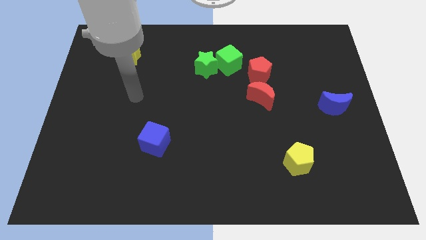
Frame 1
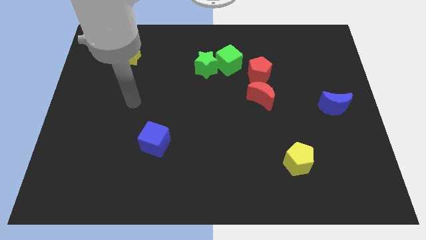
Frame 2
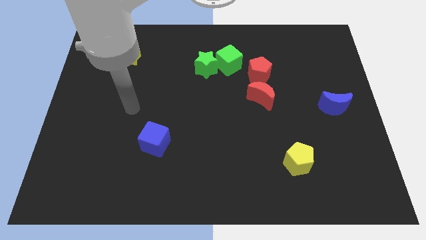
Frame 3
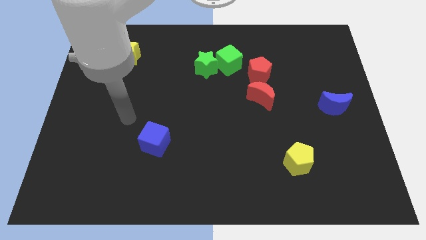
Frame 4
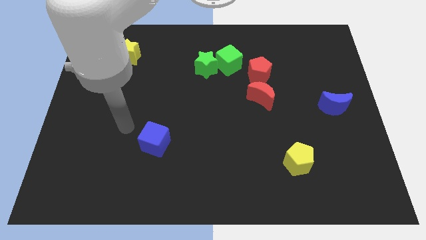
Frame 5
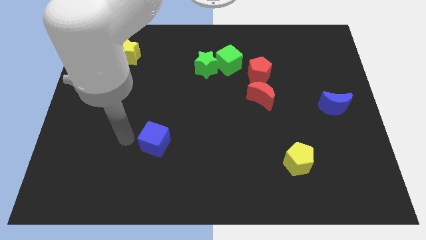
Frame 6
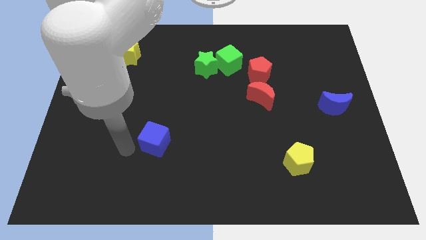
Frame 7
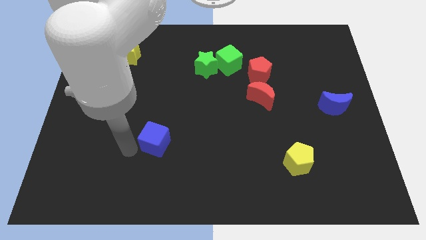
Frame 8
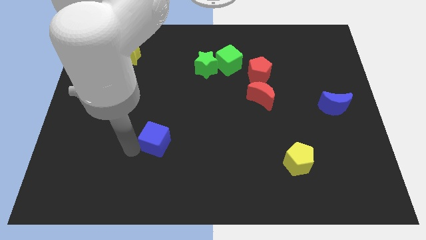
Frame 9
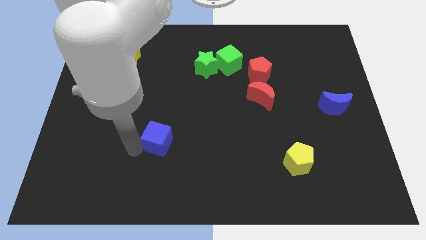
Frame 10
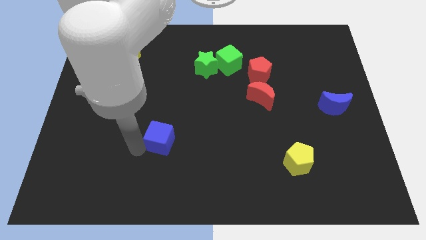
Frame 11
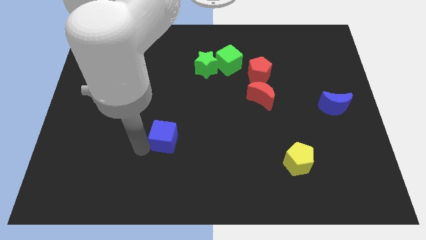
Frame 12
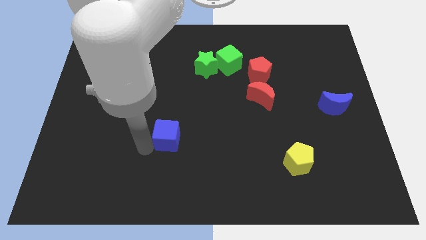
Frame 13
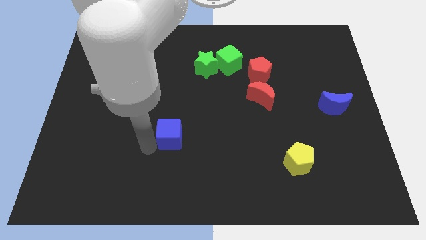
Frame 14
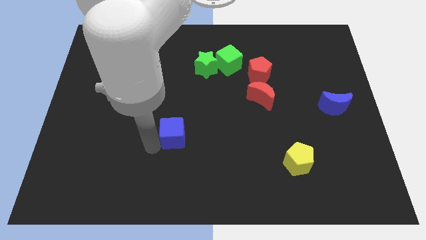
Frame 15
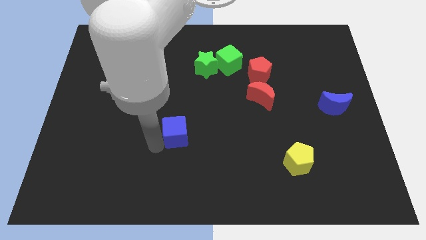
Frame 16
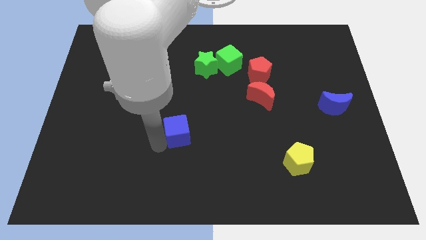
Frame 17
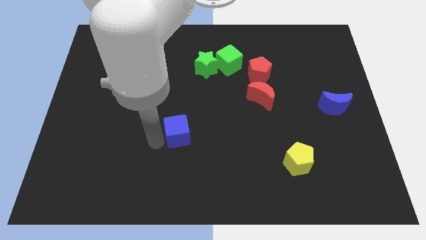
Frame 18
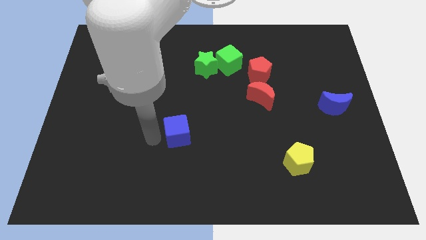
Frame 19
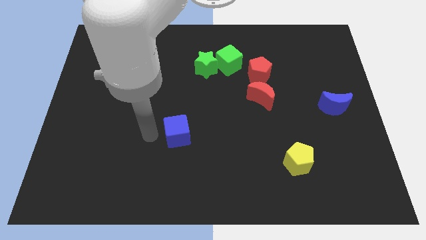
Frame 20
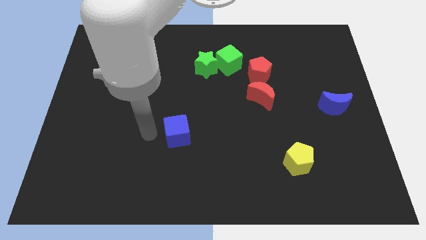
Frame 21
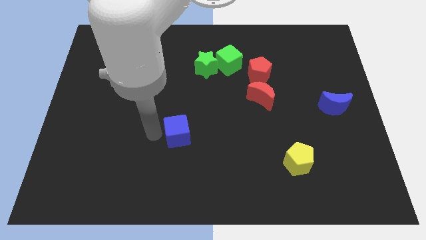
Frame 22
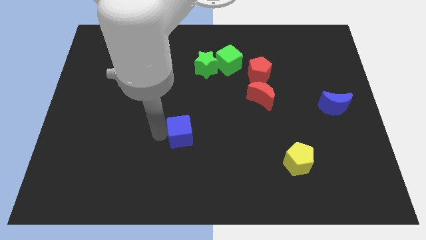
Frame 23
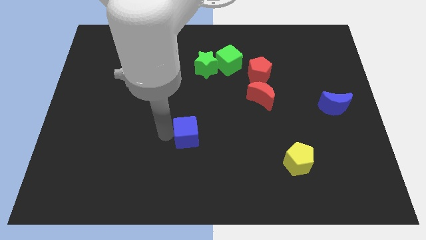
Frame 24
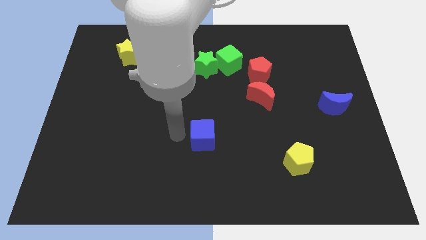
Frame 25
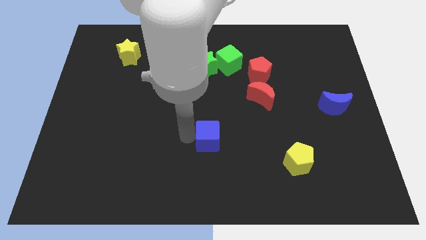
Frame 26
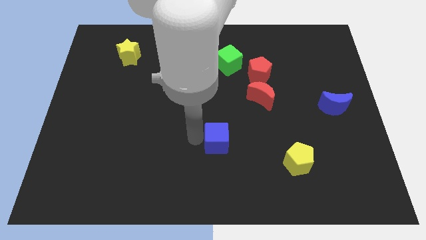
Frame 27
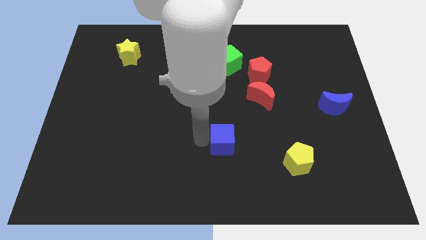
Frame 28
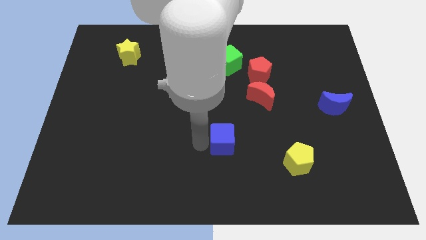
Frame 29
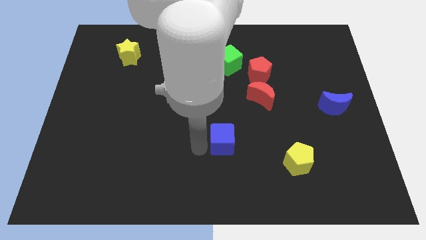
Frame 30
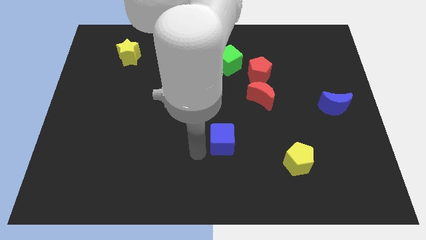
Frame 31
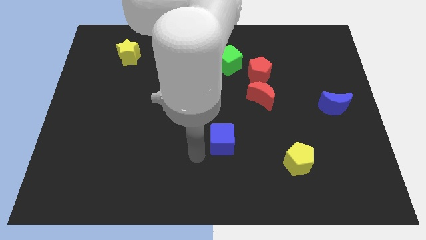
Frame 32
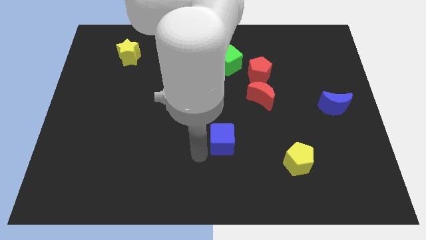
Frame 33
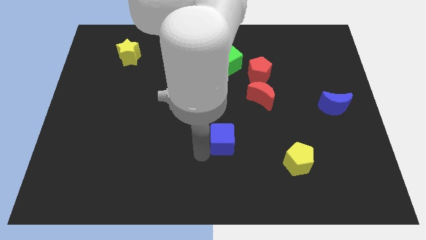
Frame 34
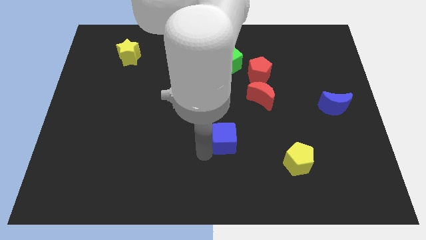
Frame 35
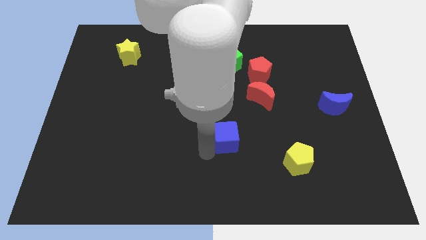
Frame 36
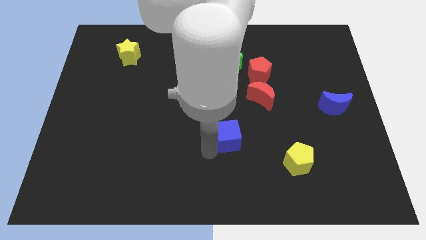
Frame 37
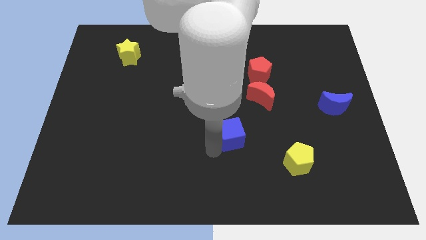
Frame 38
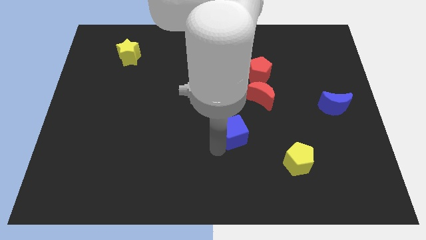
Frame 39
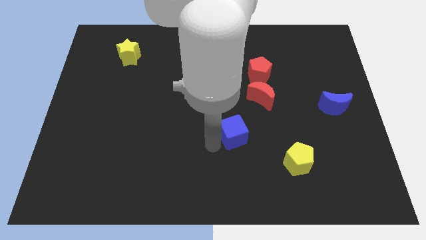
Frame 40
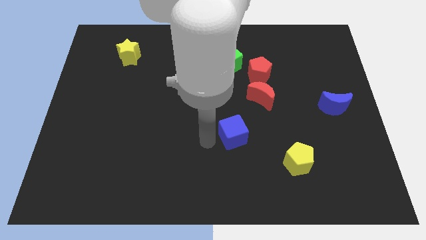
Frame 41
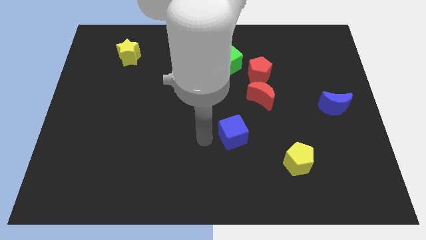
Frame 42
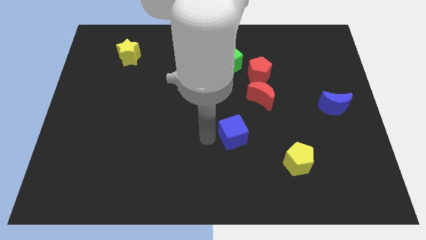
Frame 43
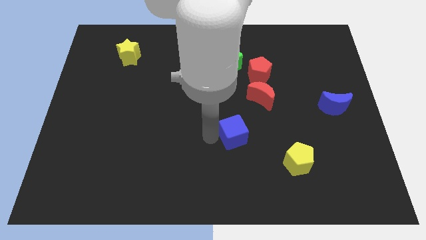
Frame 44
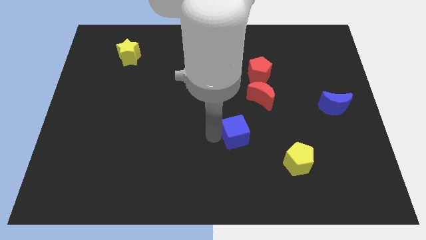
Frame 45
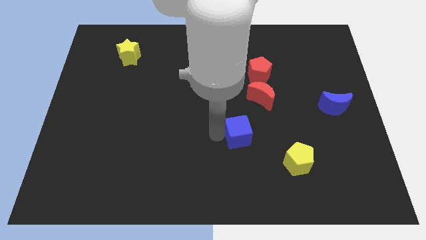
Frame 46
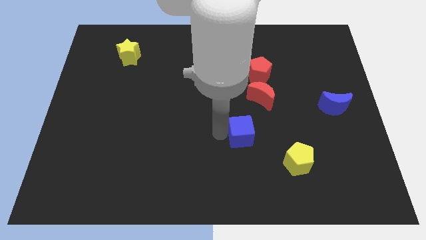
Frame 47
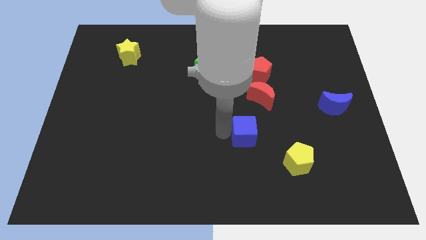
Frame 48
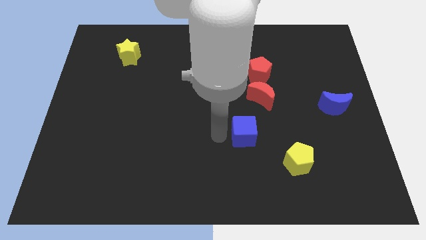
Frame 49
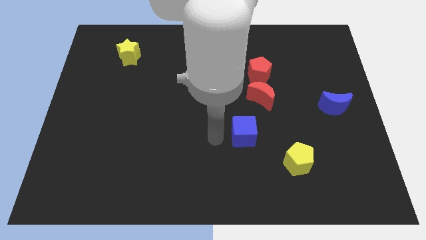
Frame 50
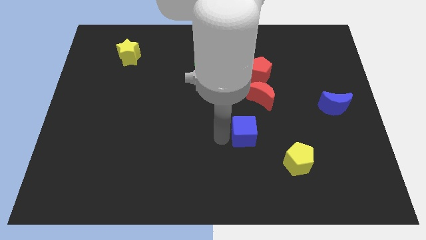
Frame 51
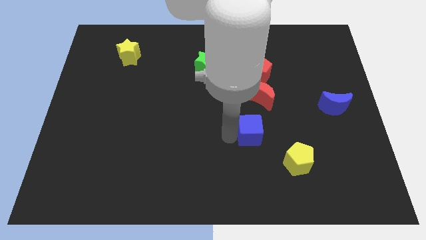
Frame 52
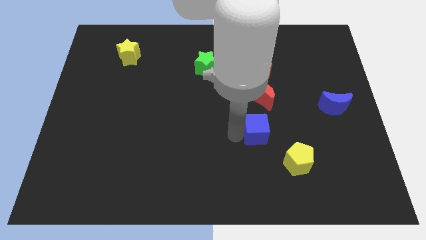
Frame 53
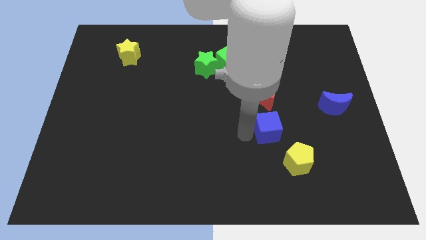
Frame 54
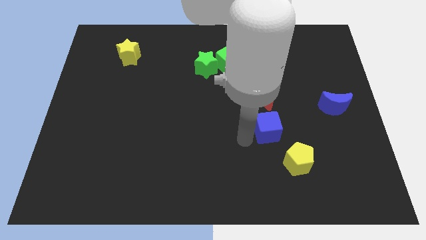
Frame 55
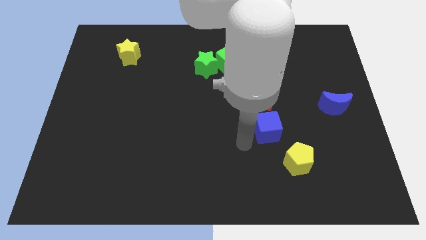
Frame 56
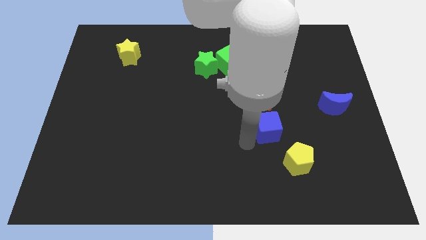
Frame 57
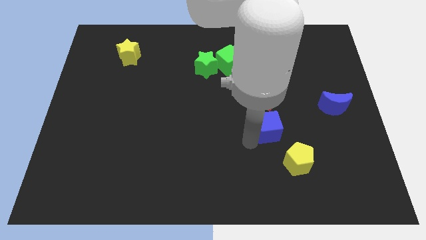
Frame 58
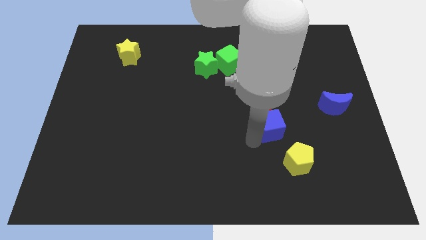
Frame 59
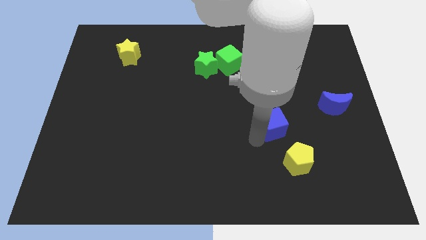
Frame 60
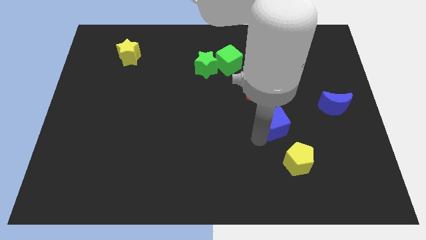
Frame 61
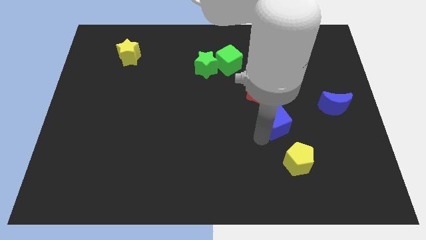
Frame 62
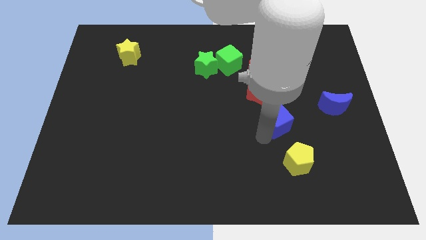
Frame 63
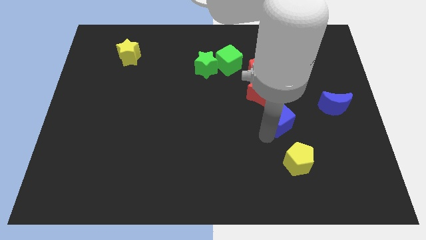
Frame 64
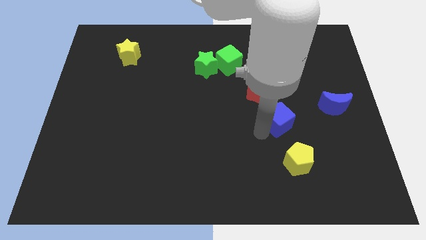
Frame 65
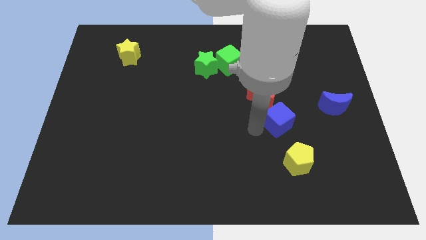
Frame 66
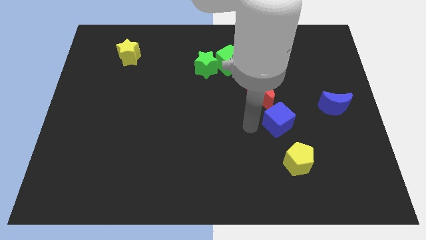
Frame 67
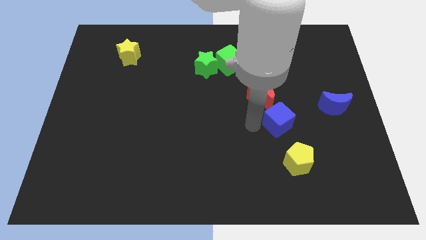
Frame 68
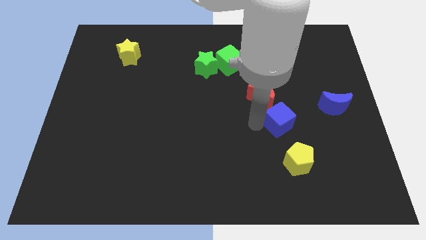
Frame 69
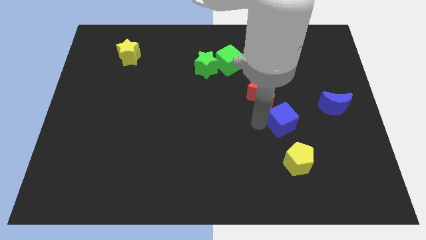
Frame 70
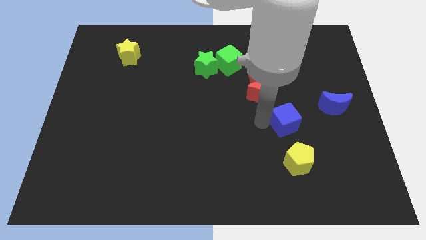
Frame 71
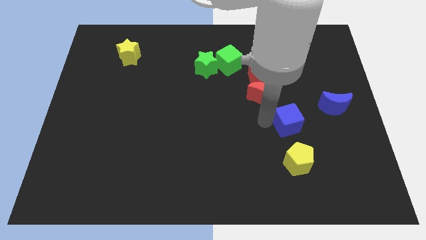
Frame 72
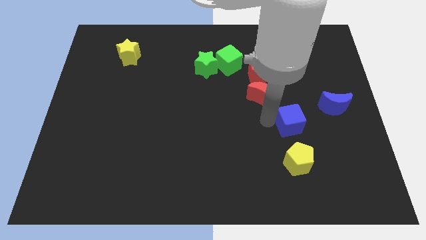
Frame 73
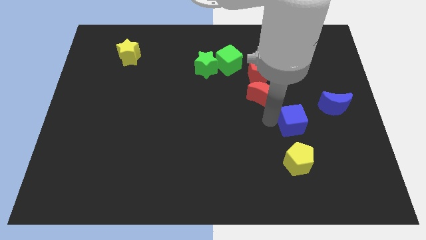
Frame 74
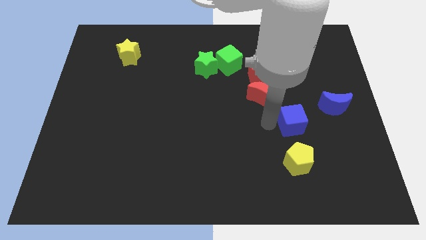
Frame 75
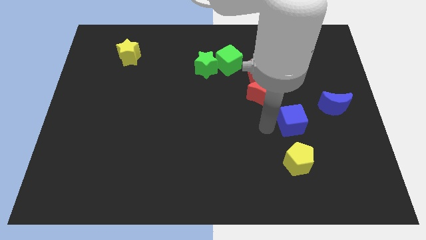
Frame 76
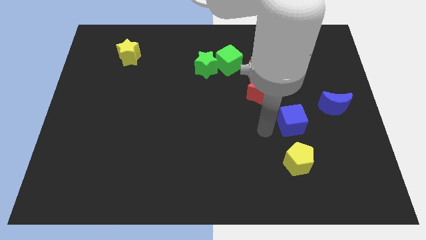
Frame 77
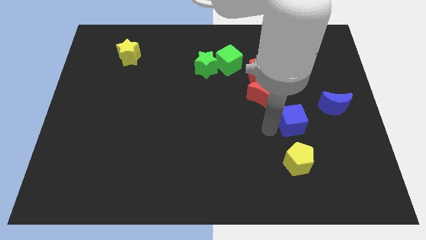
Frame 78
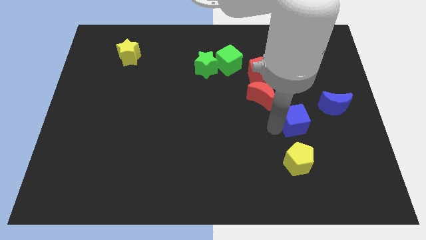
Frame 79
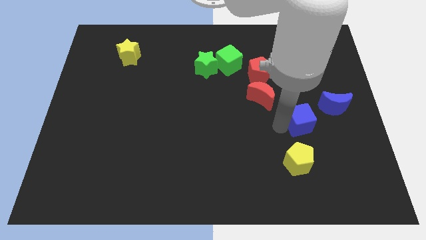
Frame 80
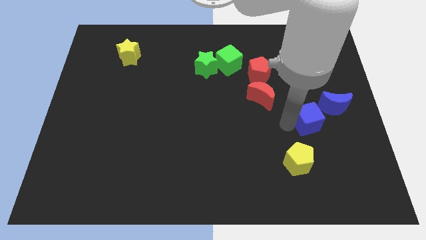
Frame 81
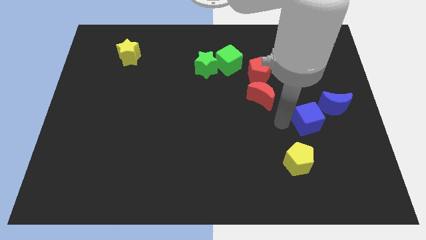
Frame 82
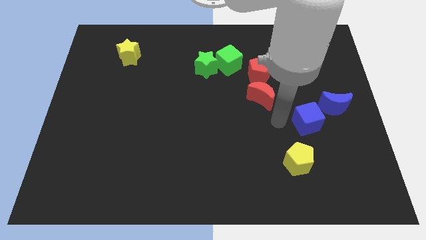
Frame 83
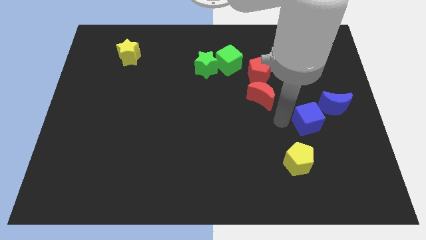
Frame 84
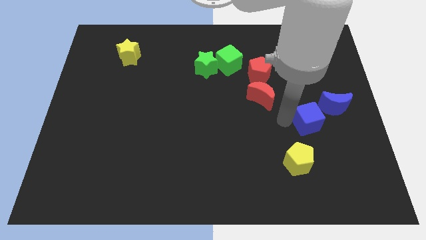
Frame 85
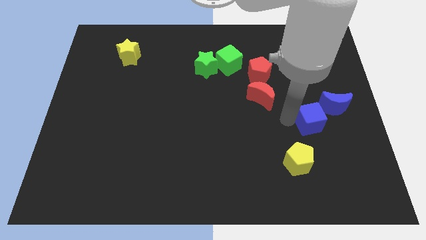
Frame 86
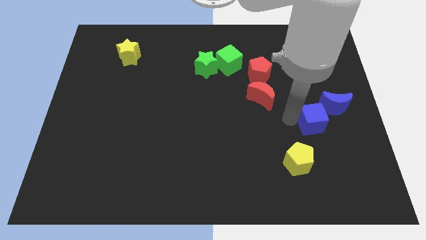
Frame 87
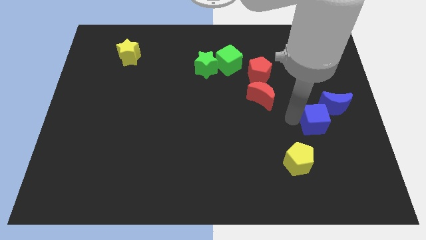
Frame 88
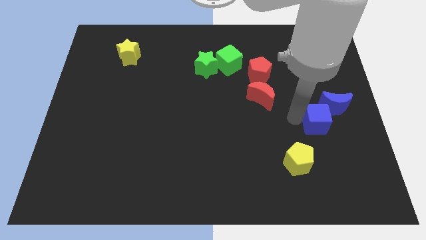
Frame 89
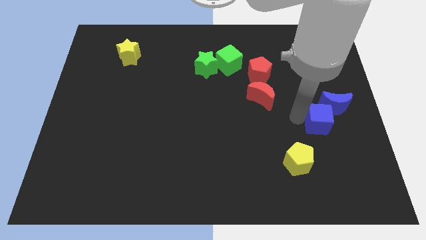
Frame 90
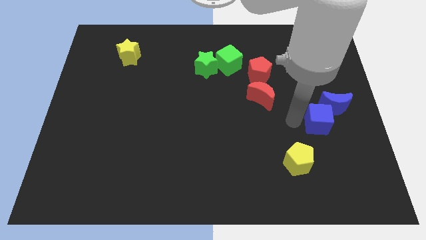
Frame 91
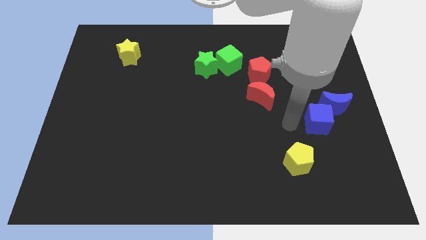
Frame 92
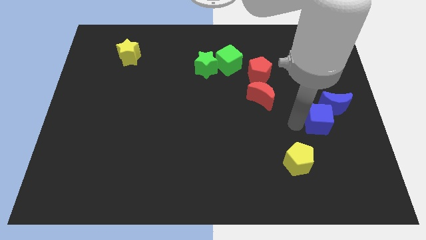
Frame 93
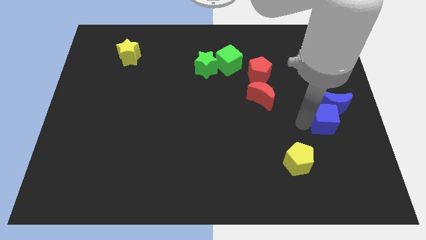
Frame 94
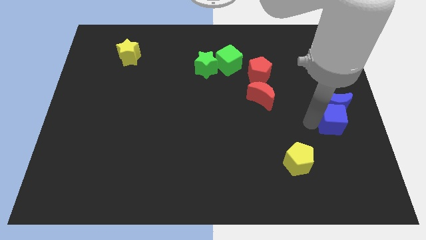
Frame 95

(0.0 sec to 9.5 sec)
push the blue cube to the right side
